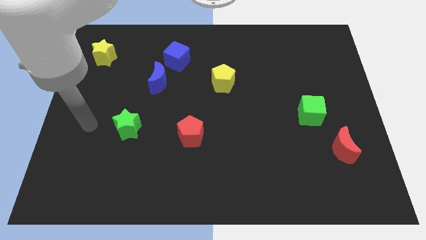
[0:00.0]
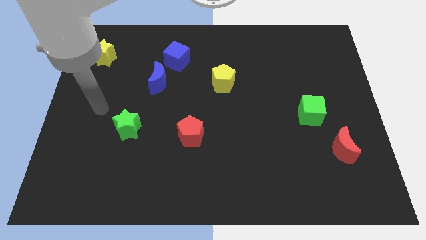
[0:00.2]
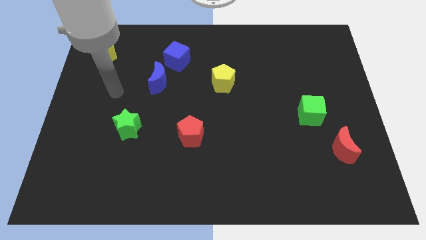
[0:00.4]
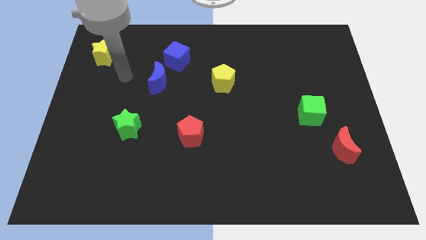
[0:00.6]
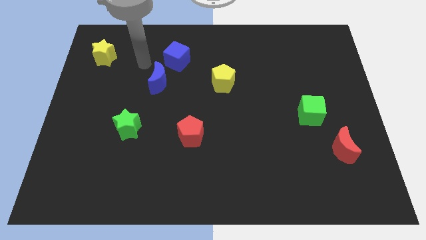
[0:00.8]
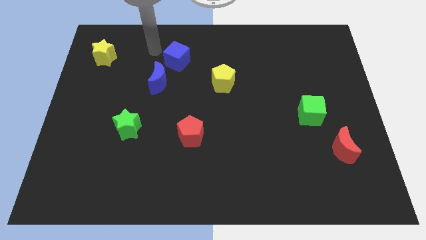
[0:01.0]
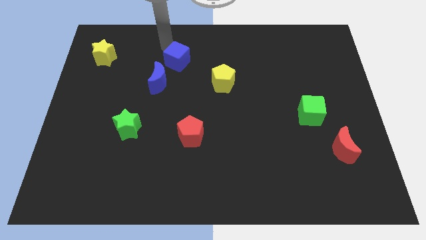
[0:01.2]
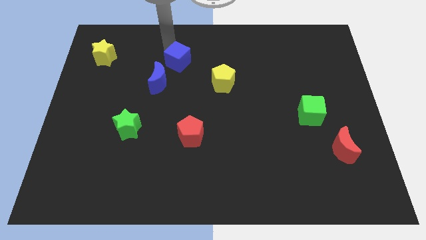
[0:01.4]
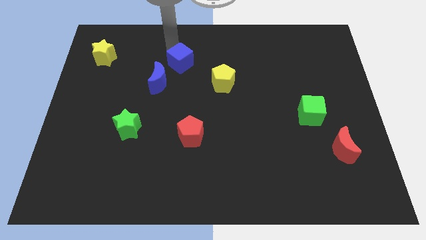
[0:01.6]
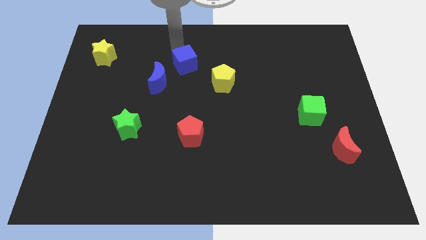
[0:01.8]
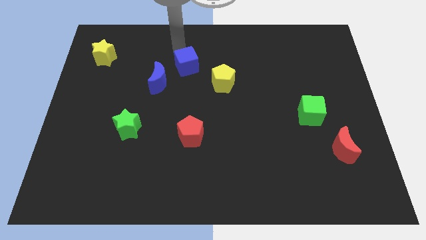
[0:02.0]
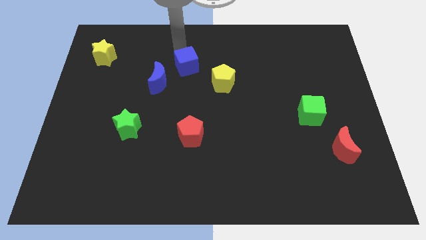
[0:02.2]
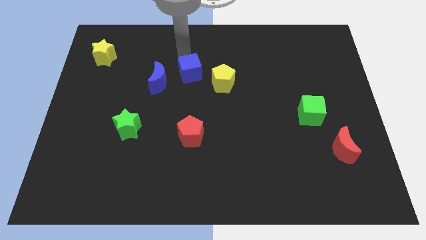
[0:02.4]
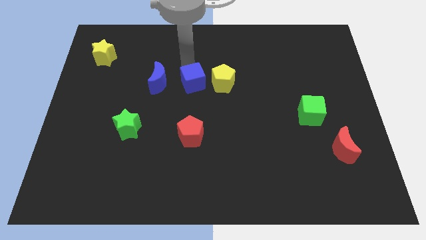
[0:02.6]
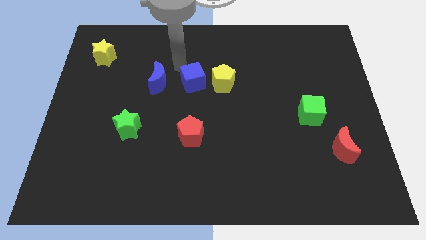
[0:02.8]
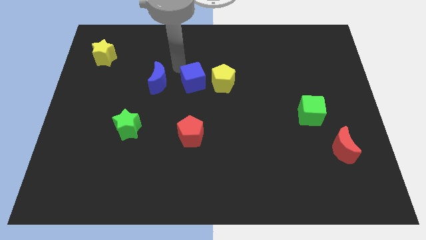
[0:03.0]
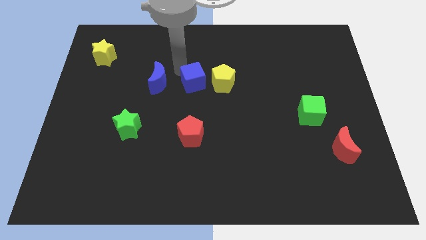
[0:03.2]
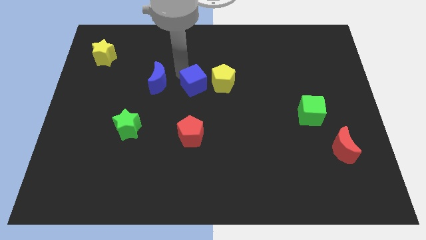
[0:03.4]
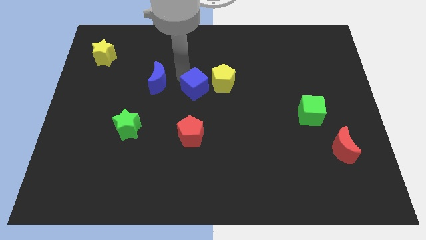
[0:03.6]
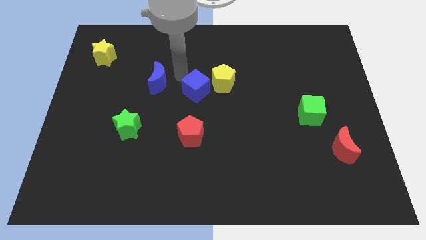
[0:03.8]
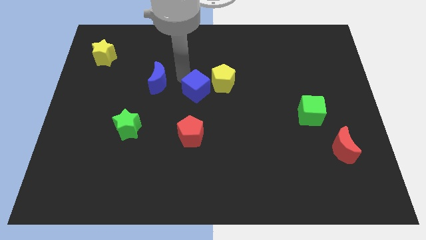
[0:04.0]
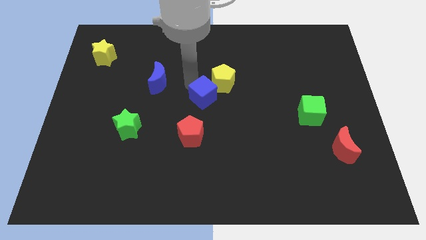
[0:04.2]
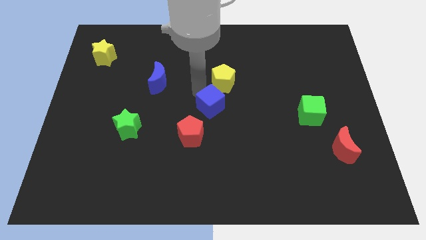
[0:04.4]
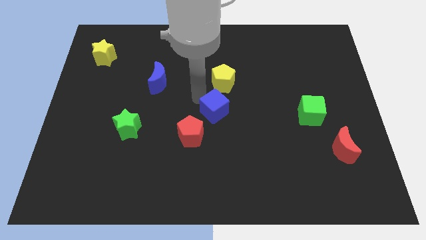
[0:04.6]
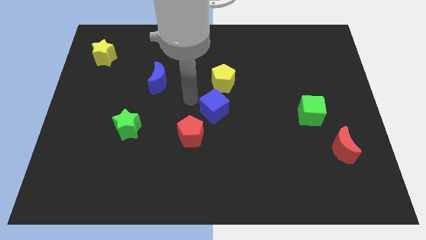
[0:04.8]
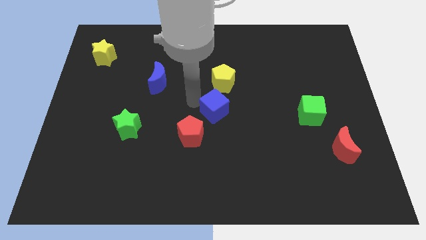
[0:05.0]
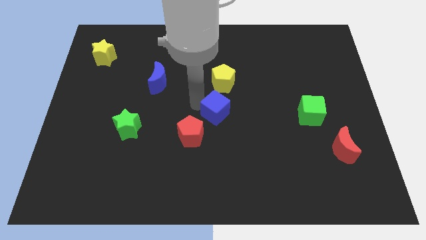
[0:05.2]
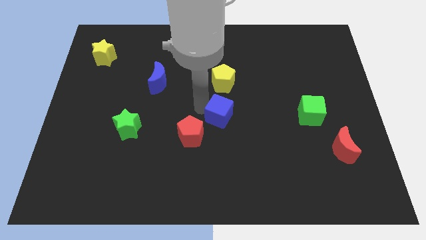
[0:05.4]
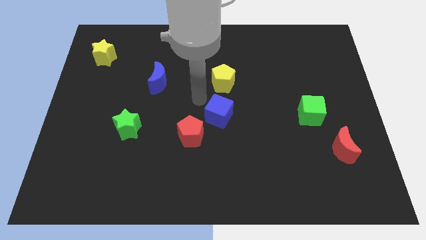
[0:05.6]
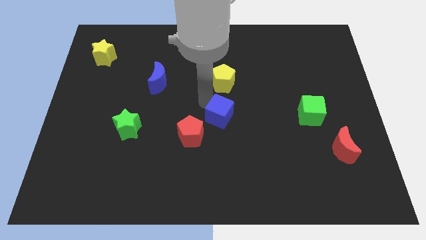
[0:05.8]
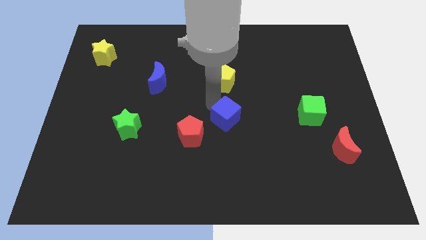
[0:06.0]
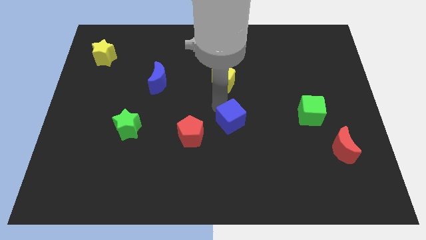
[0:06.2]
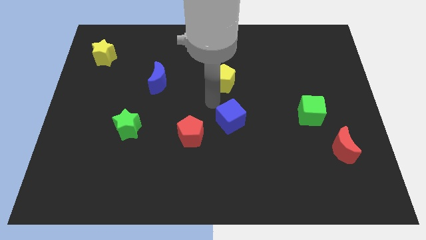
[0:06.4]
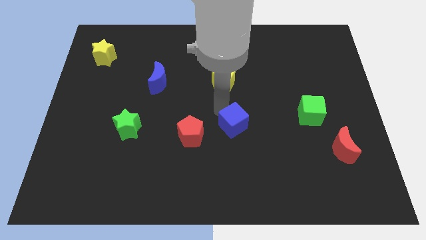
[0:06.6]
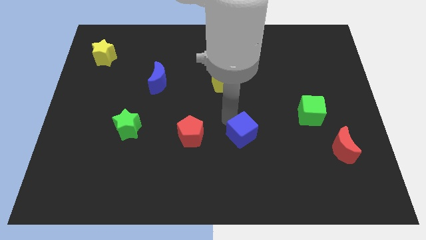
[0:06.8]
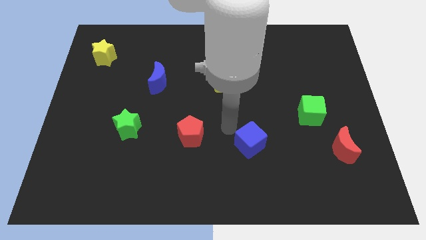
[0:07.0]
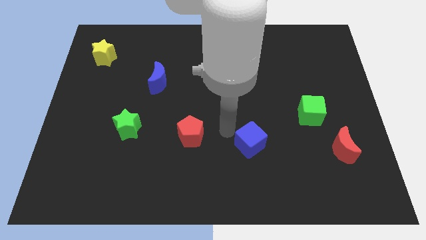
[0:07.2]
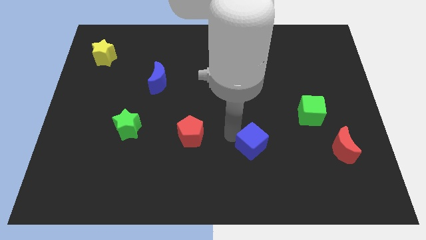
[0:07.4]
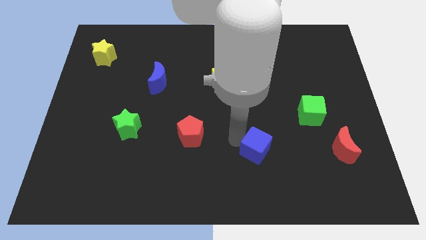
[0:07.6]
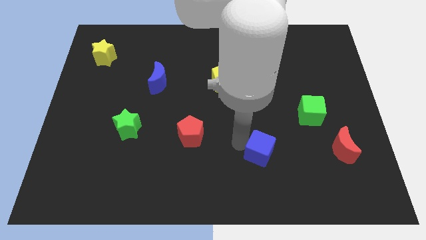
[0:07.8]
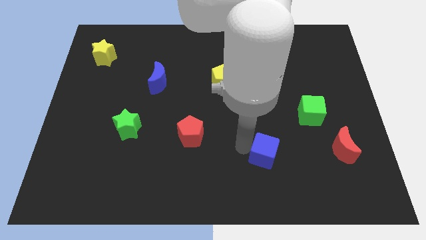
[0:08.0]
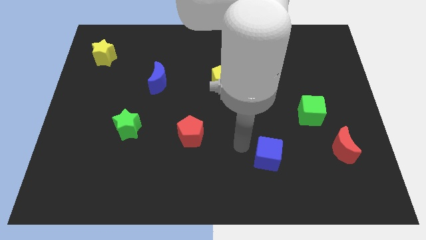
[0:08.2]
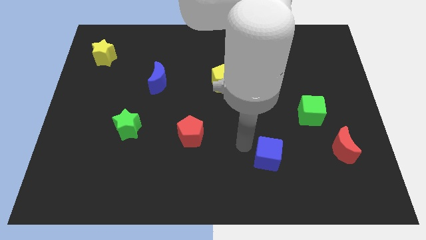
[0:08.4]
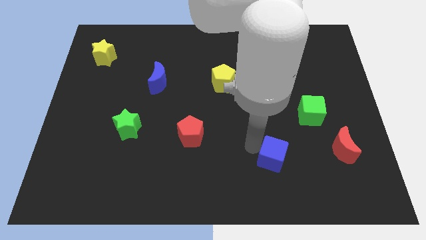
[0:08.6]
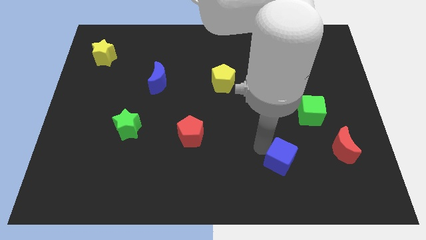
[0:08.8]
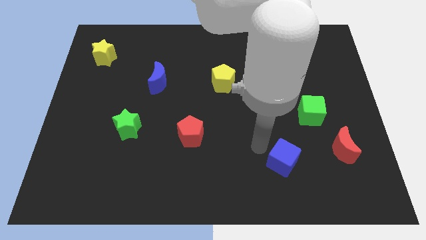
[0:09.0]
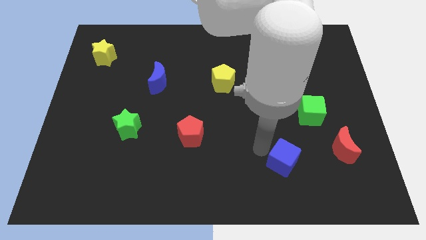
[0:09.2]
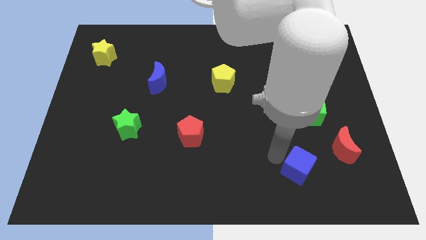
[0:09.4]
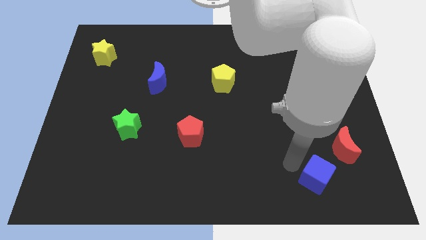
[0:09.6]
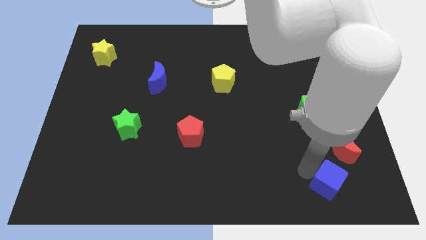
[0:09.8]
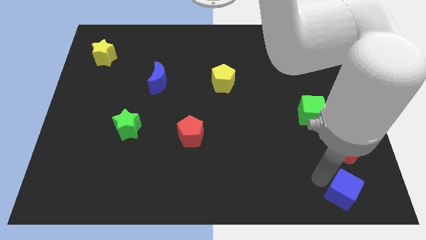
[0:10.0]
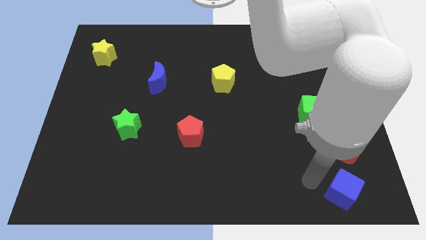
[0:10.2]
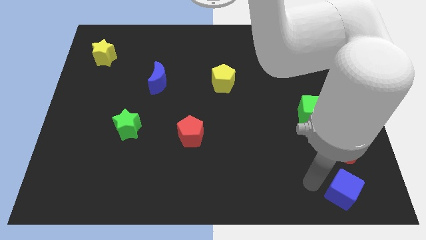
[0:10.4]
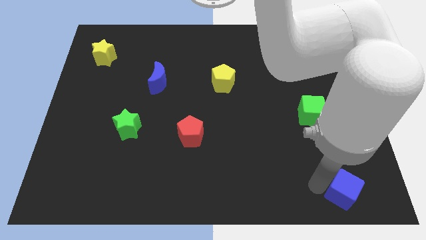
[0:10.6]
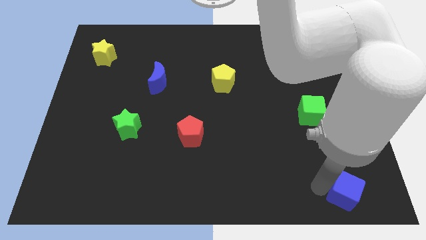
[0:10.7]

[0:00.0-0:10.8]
put the blue cube to the bottom right

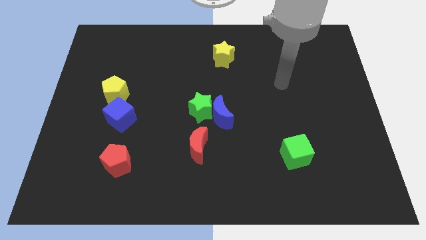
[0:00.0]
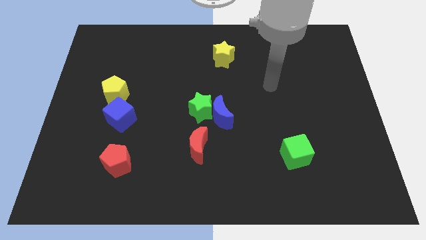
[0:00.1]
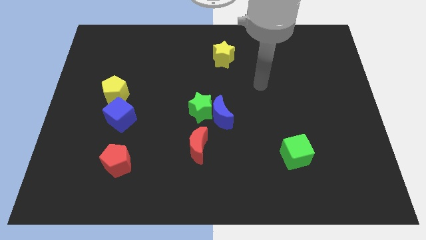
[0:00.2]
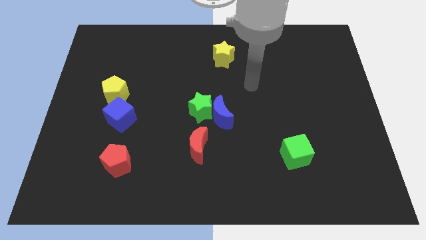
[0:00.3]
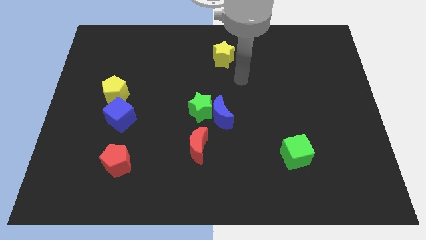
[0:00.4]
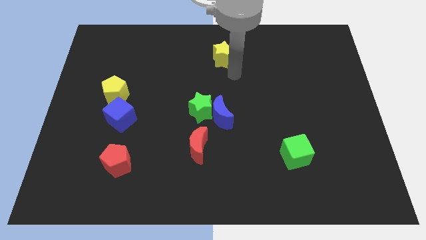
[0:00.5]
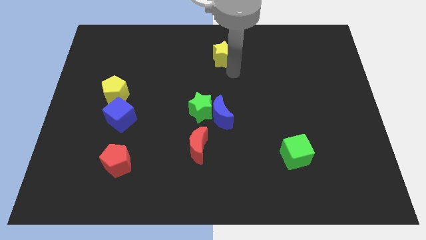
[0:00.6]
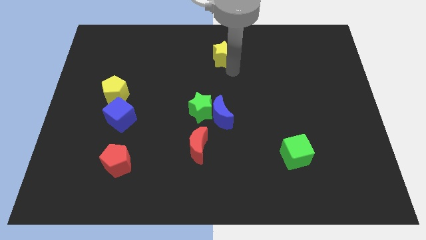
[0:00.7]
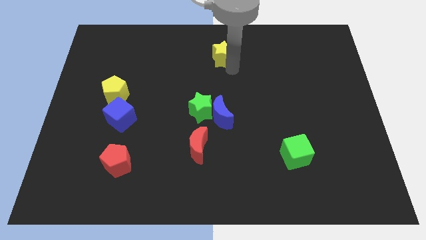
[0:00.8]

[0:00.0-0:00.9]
slide the yellow star to the top

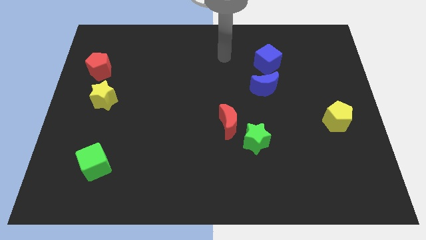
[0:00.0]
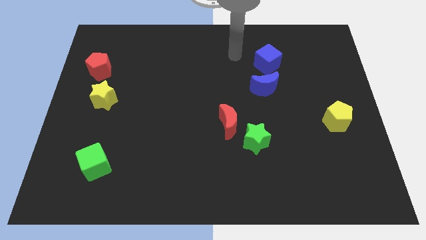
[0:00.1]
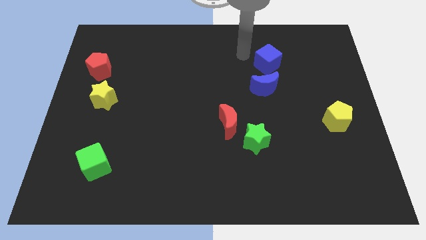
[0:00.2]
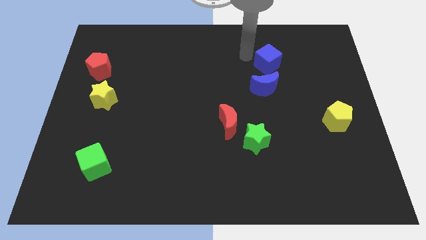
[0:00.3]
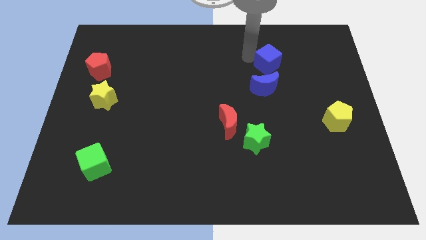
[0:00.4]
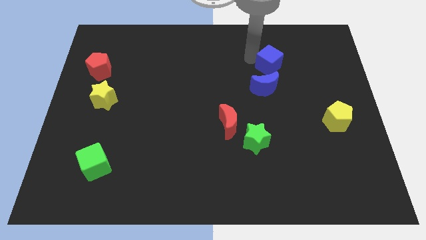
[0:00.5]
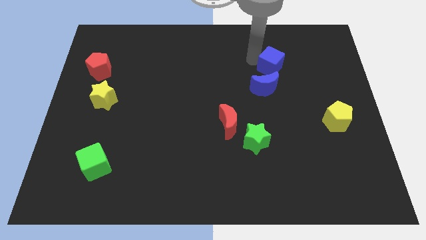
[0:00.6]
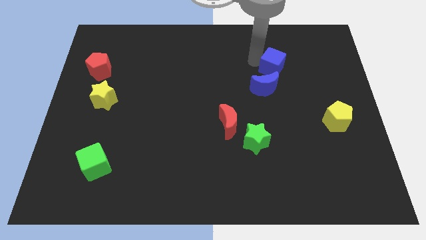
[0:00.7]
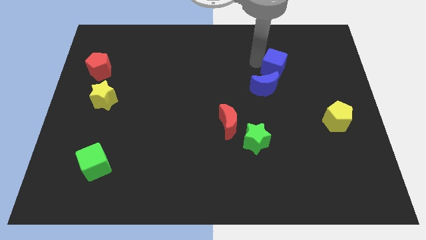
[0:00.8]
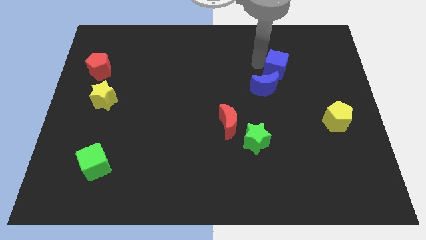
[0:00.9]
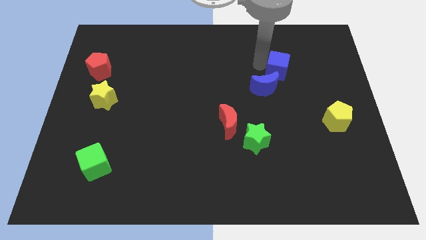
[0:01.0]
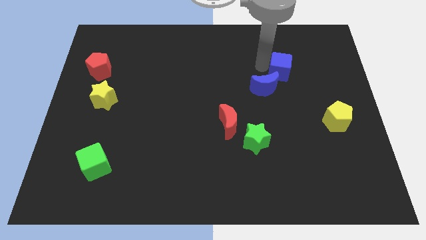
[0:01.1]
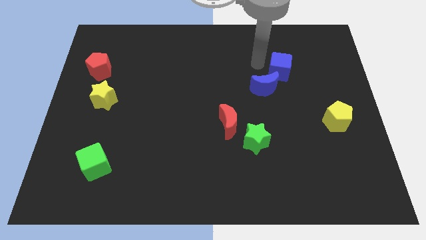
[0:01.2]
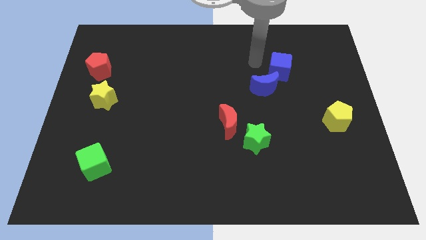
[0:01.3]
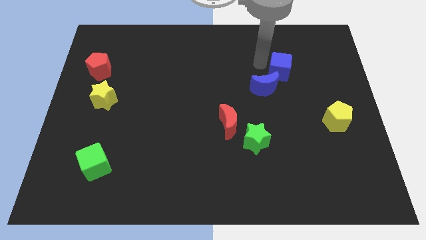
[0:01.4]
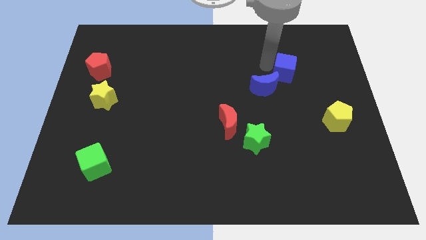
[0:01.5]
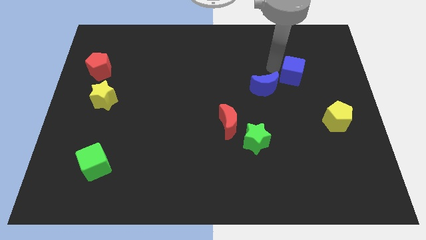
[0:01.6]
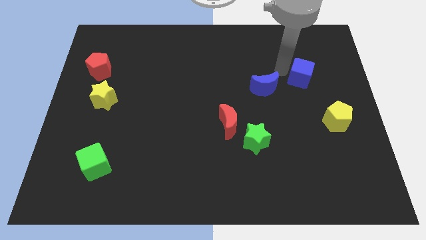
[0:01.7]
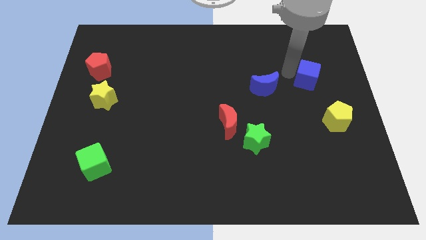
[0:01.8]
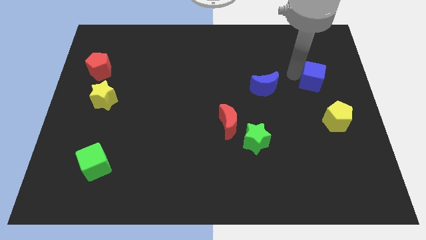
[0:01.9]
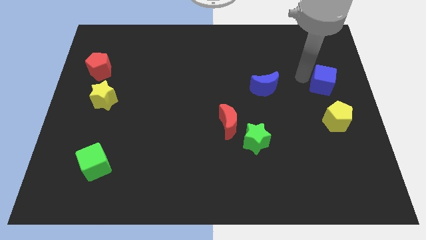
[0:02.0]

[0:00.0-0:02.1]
put the blue cube to the right side of the board
